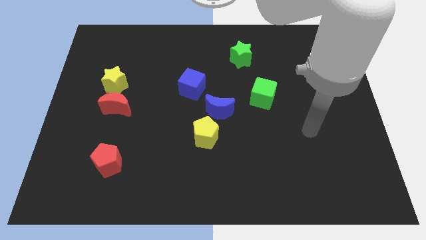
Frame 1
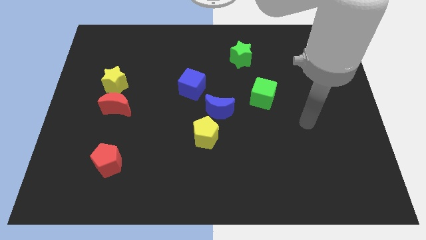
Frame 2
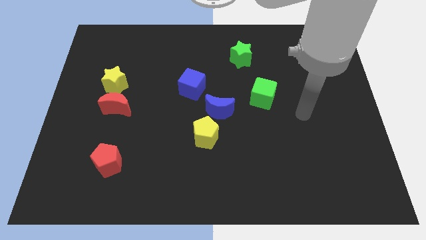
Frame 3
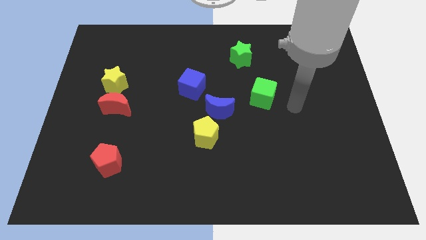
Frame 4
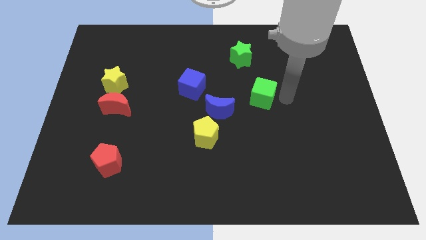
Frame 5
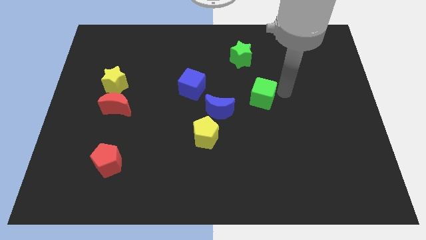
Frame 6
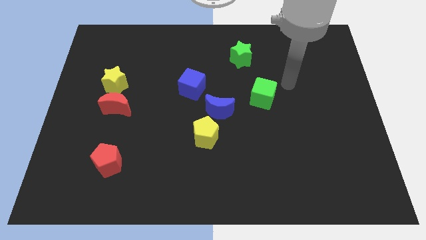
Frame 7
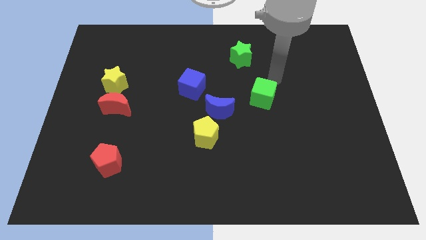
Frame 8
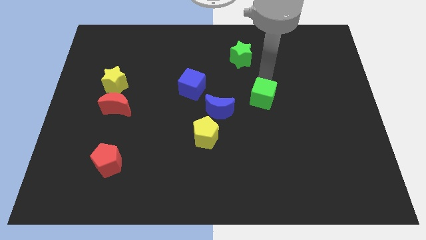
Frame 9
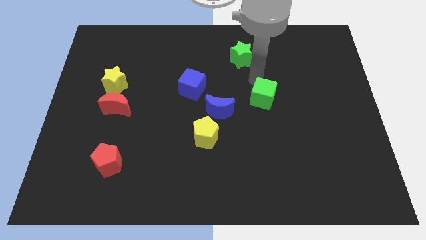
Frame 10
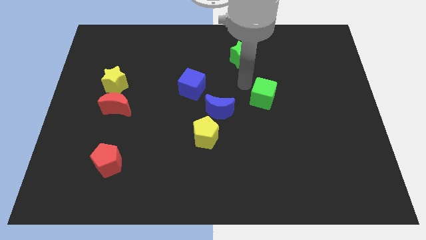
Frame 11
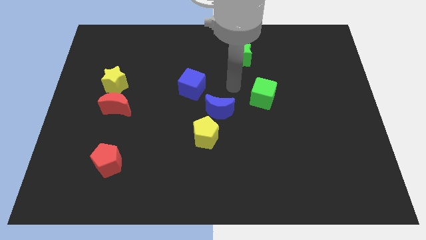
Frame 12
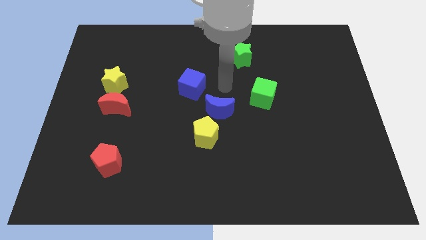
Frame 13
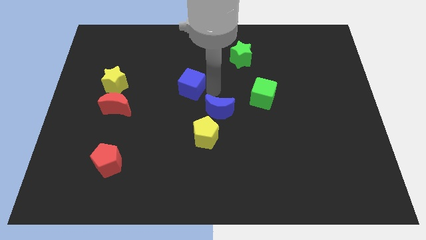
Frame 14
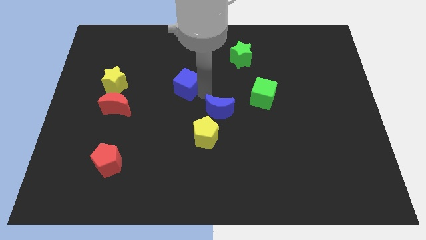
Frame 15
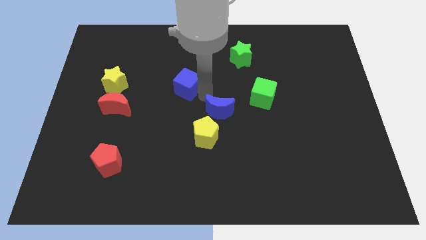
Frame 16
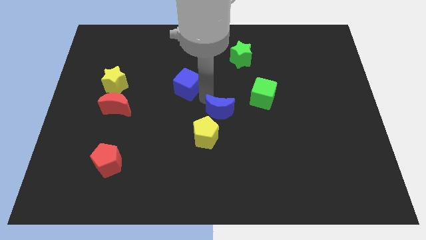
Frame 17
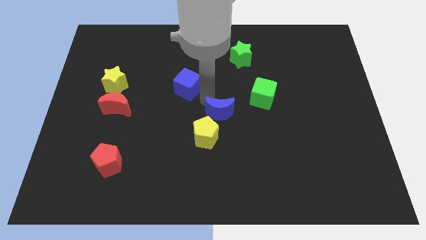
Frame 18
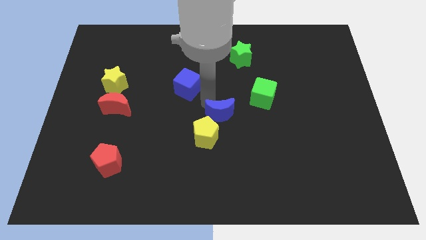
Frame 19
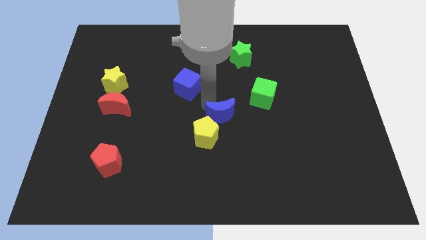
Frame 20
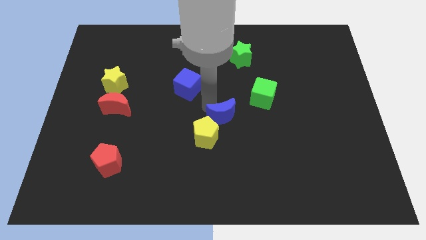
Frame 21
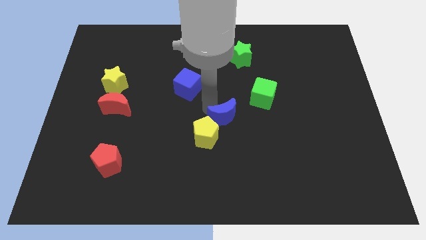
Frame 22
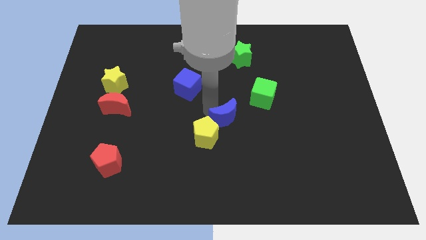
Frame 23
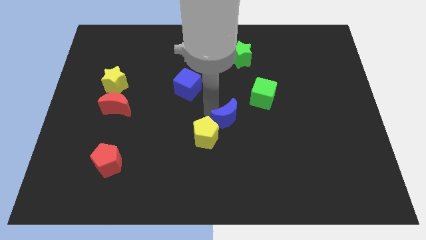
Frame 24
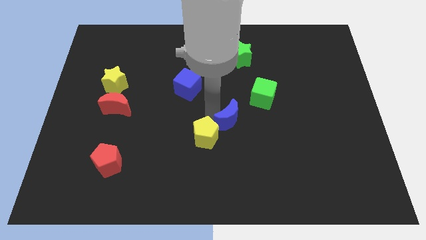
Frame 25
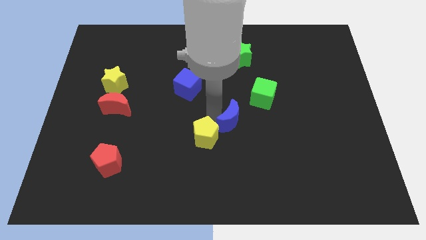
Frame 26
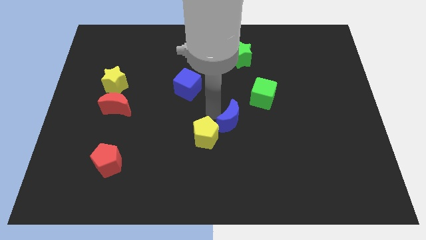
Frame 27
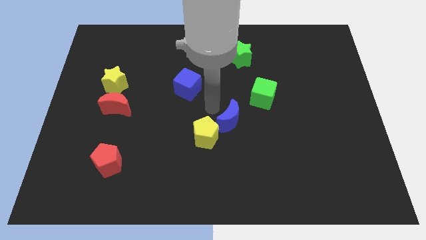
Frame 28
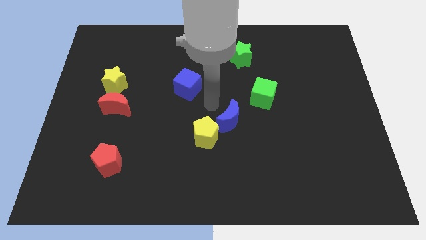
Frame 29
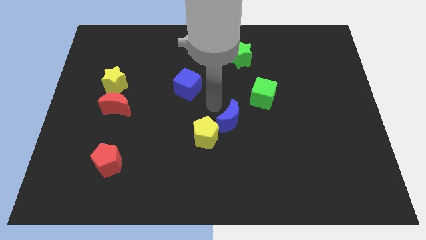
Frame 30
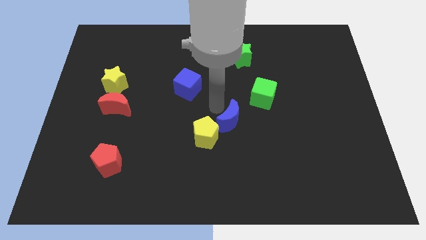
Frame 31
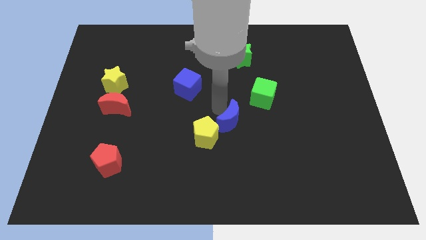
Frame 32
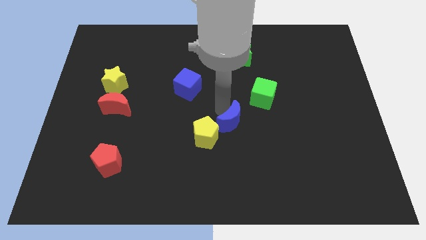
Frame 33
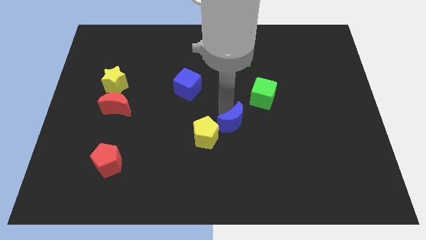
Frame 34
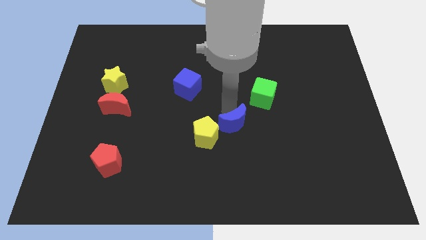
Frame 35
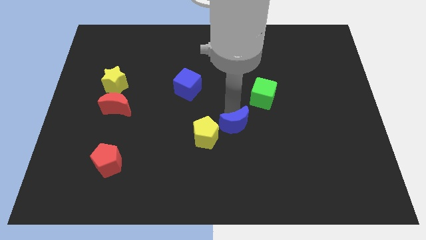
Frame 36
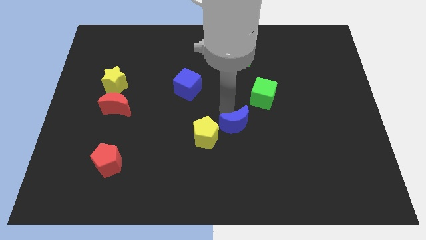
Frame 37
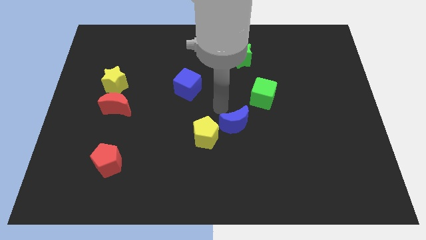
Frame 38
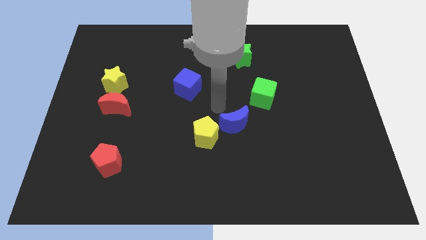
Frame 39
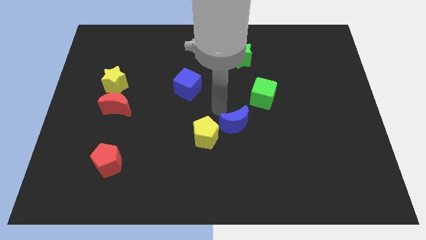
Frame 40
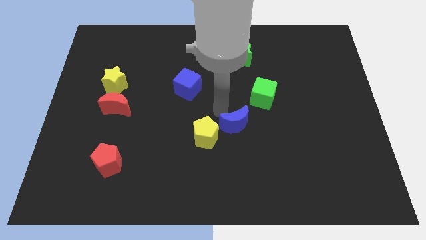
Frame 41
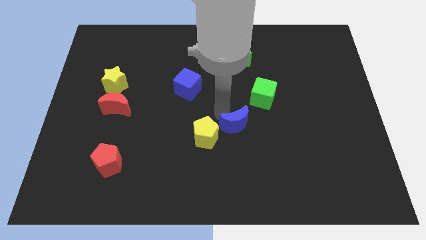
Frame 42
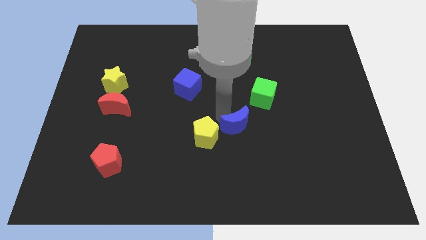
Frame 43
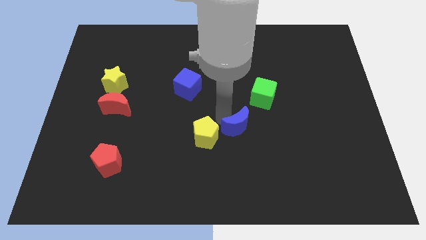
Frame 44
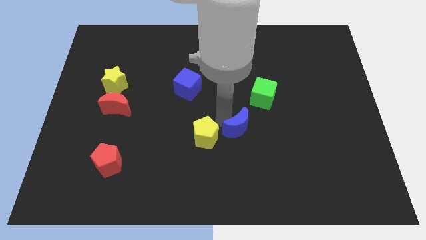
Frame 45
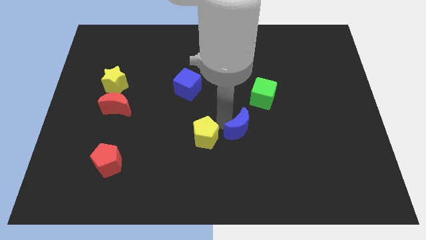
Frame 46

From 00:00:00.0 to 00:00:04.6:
slightly slide the blue moon diagonally down and right

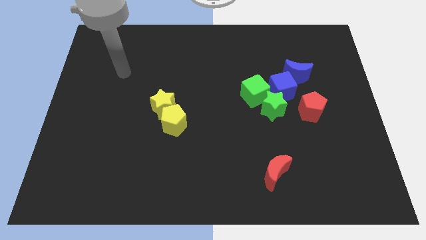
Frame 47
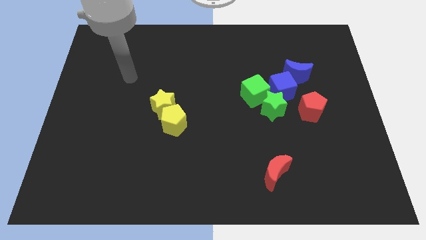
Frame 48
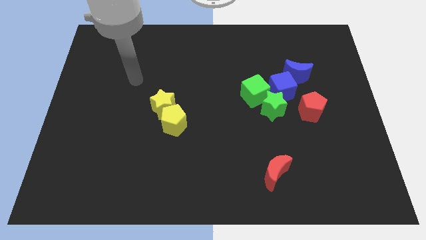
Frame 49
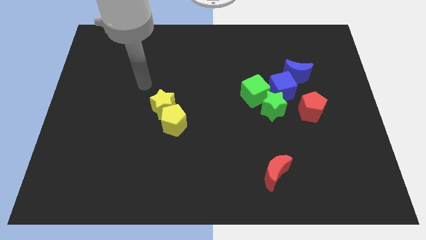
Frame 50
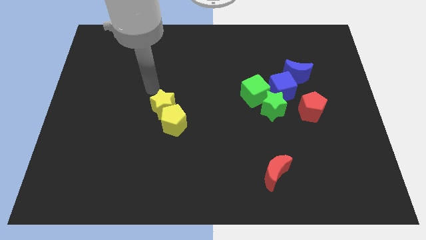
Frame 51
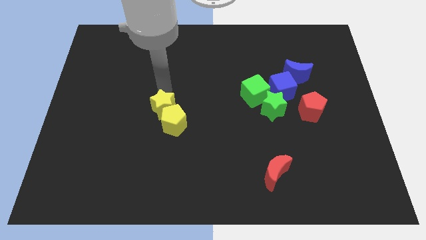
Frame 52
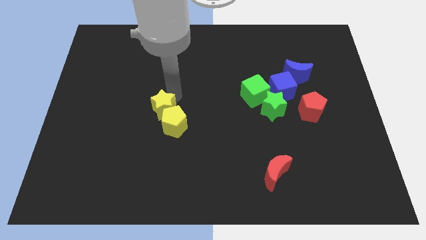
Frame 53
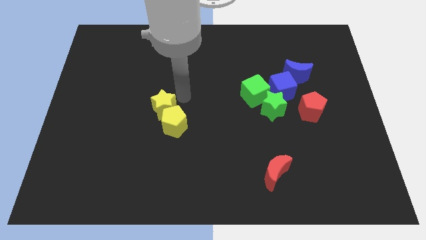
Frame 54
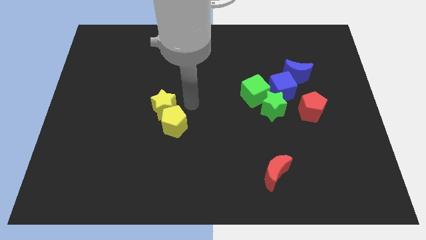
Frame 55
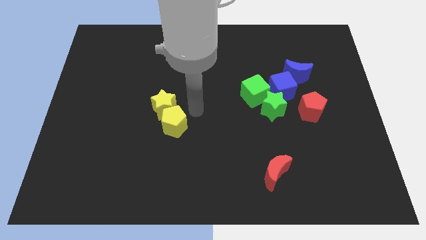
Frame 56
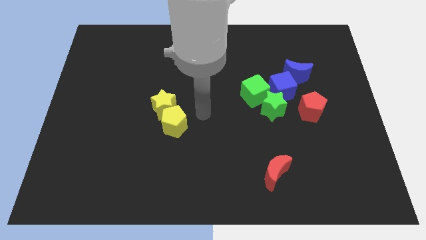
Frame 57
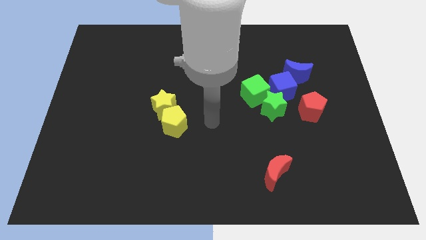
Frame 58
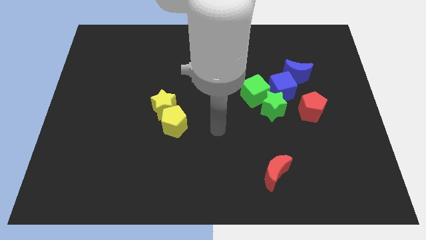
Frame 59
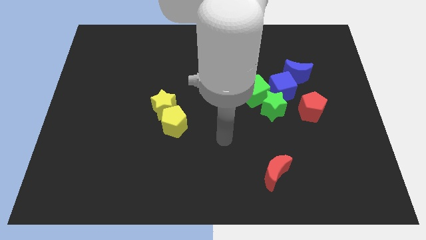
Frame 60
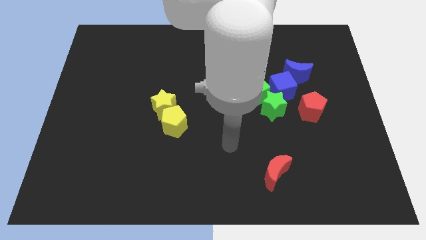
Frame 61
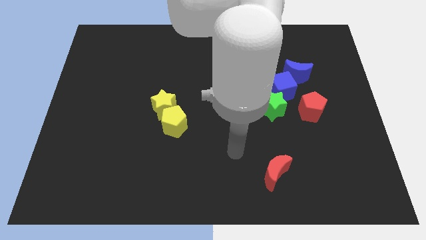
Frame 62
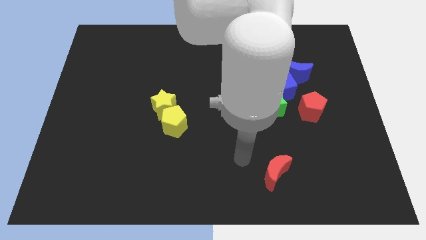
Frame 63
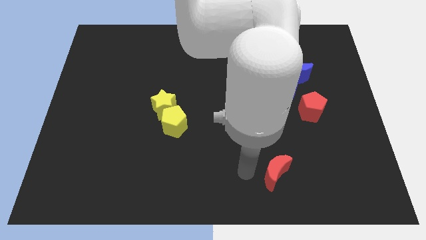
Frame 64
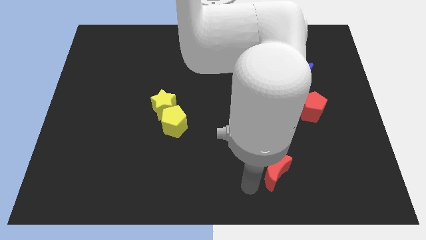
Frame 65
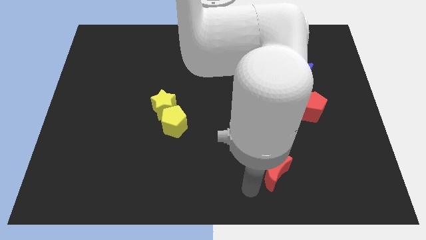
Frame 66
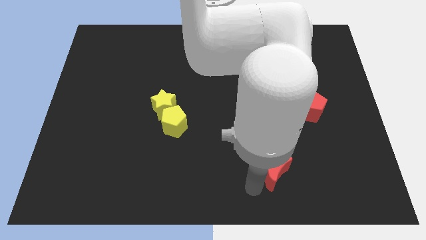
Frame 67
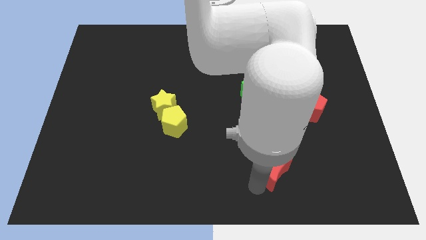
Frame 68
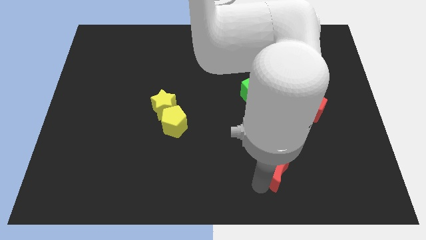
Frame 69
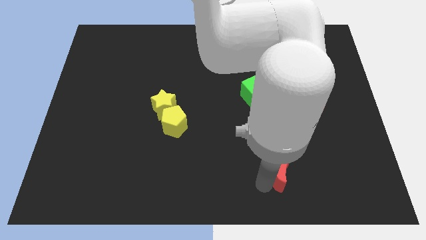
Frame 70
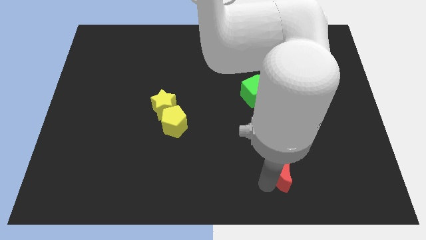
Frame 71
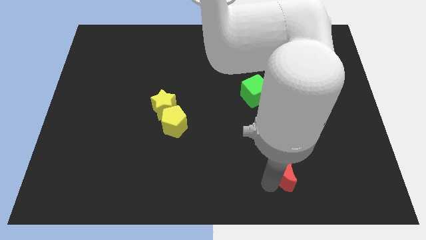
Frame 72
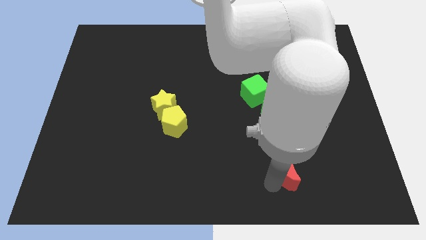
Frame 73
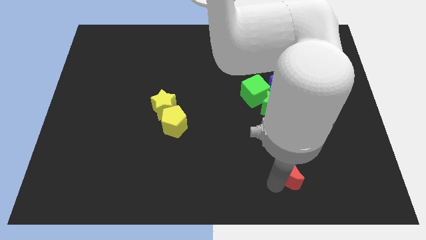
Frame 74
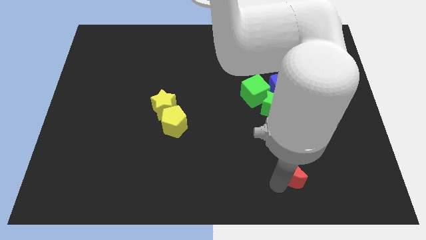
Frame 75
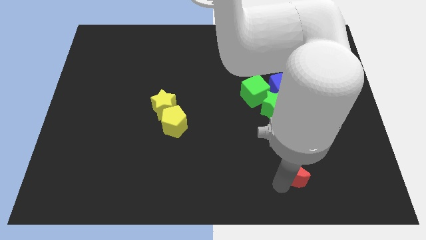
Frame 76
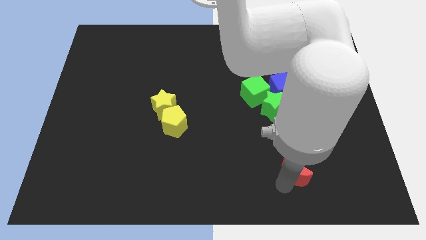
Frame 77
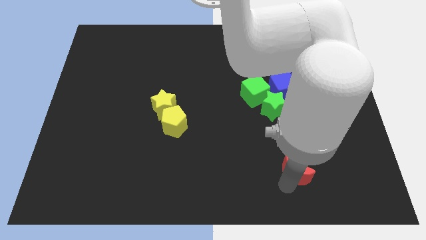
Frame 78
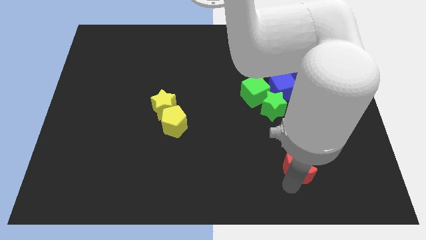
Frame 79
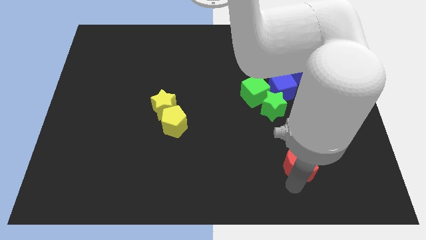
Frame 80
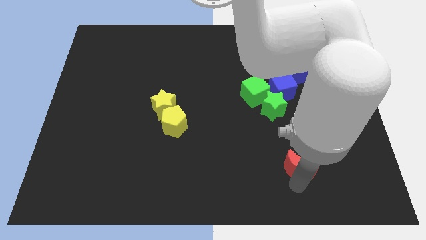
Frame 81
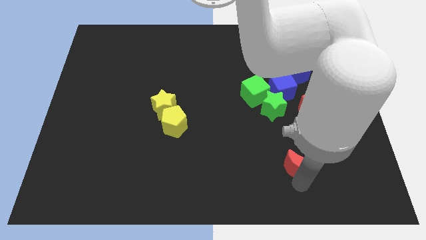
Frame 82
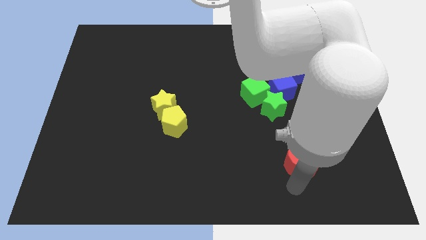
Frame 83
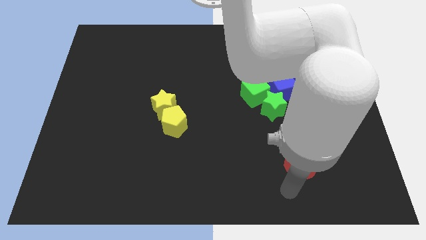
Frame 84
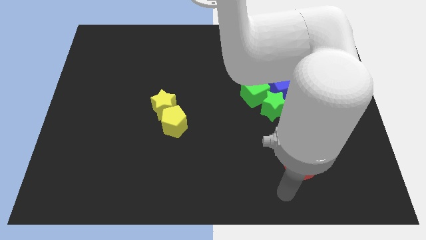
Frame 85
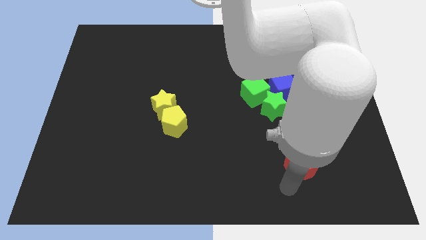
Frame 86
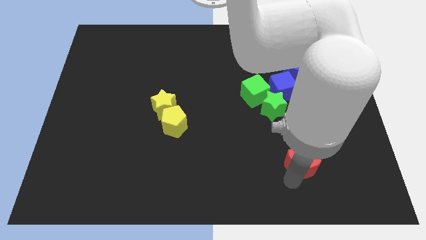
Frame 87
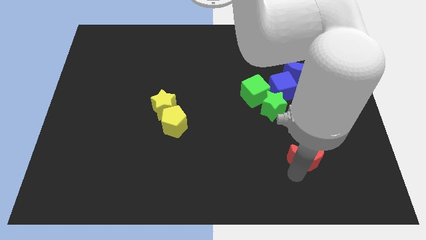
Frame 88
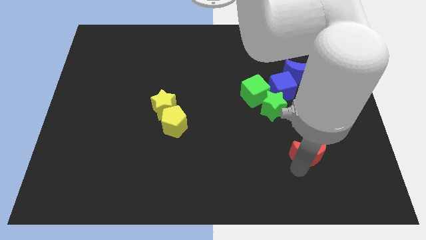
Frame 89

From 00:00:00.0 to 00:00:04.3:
slightly push the red moon upwards and right diagonally
